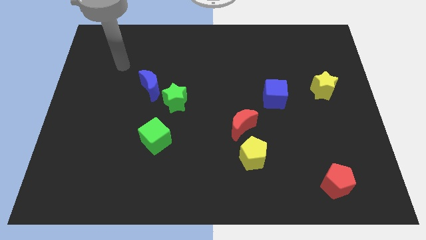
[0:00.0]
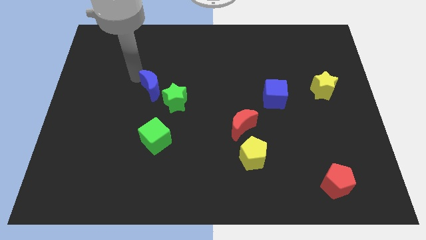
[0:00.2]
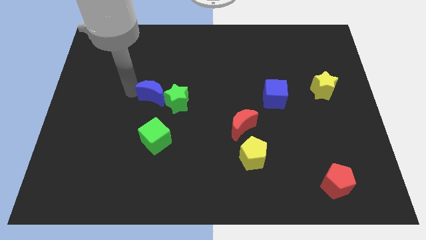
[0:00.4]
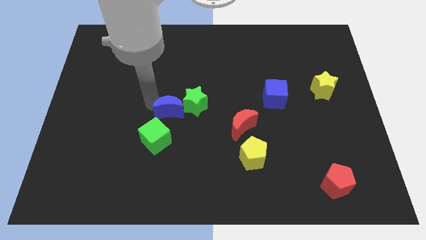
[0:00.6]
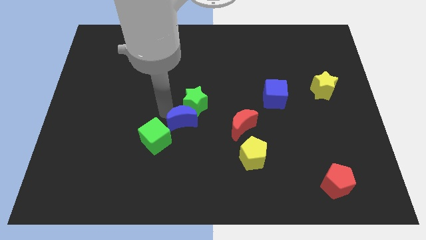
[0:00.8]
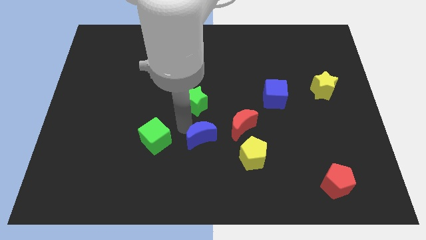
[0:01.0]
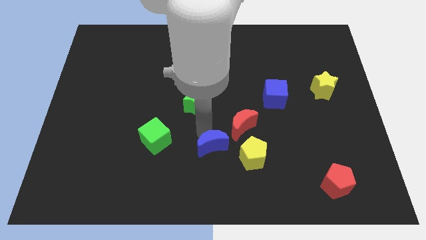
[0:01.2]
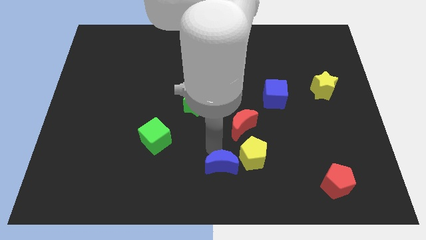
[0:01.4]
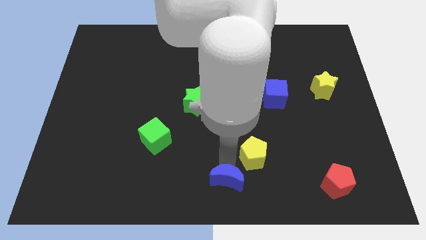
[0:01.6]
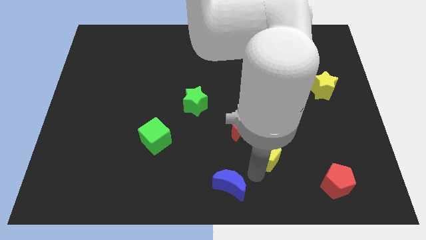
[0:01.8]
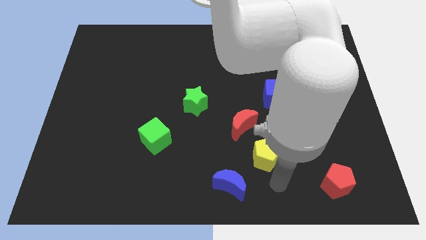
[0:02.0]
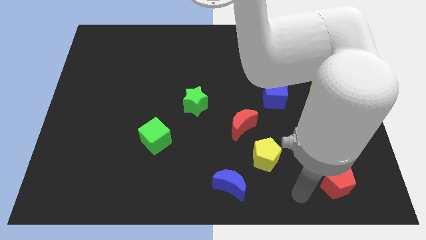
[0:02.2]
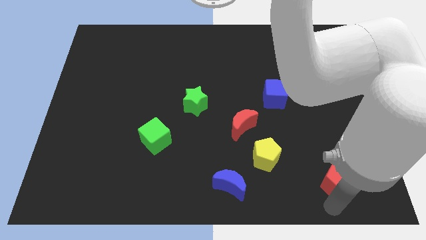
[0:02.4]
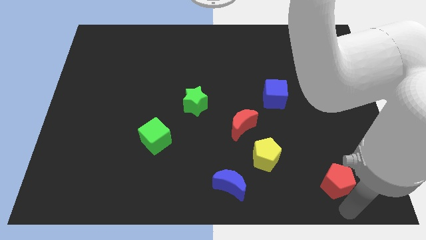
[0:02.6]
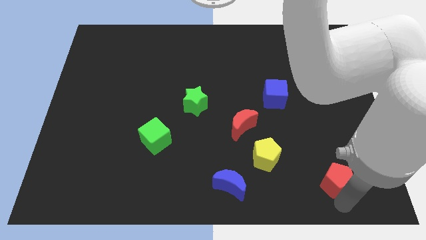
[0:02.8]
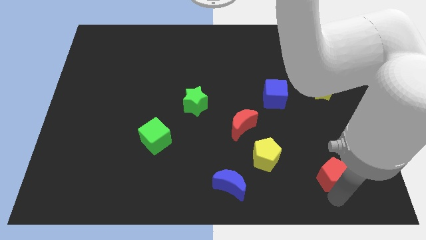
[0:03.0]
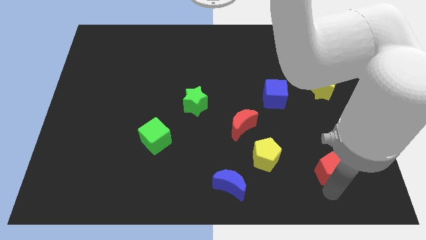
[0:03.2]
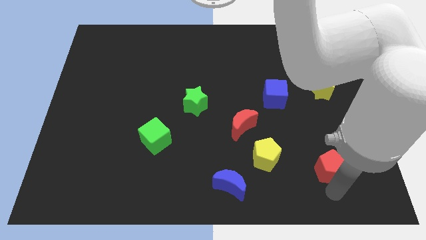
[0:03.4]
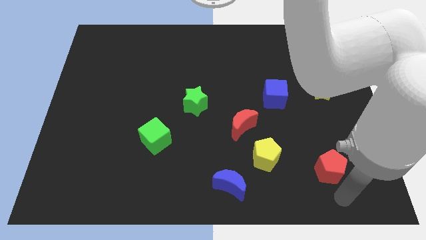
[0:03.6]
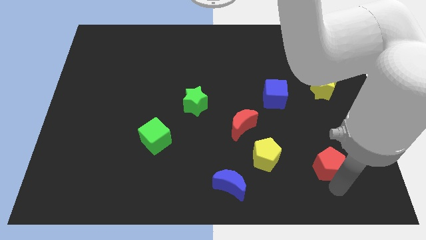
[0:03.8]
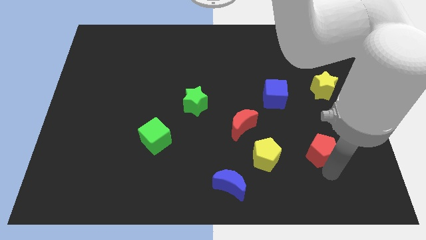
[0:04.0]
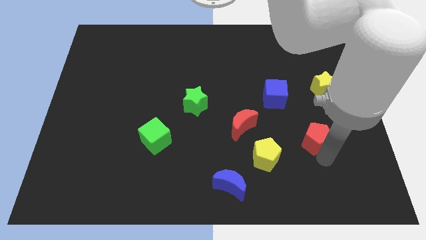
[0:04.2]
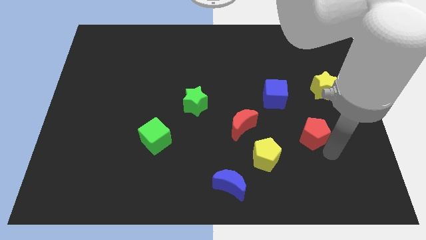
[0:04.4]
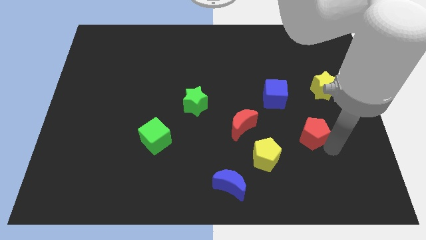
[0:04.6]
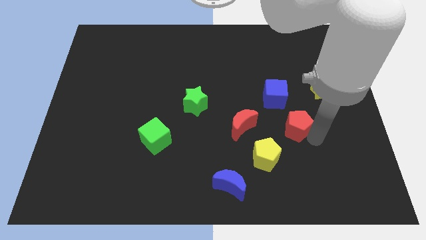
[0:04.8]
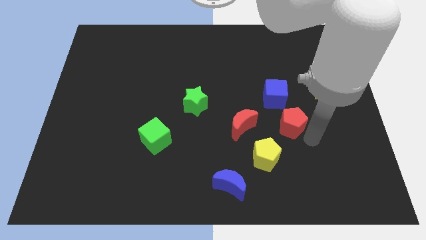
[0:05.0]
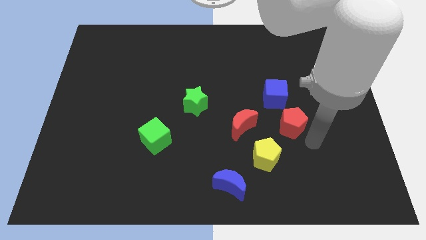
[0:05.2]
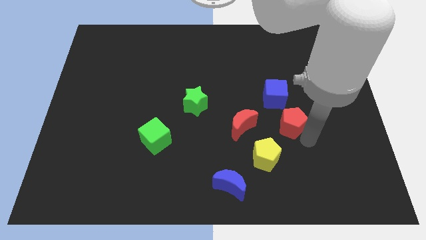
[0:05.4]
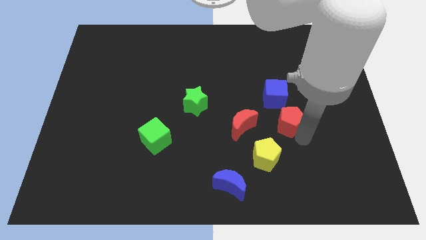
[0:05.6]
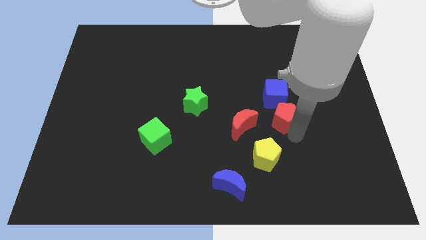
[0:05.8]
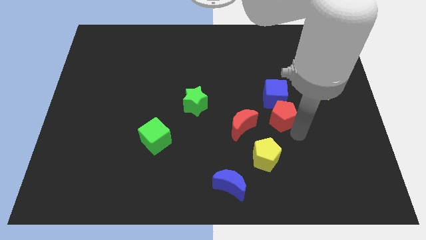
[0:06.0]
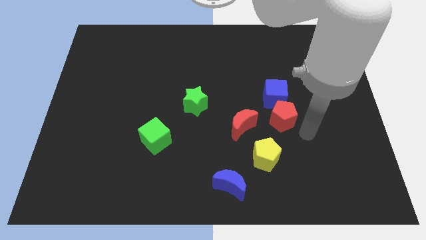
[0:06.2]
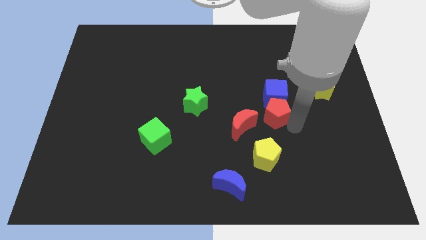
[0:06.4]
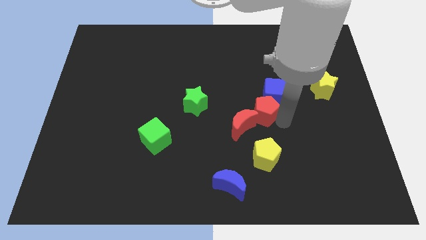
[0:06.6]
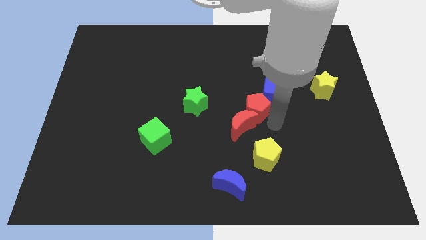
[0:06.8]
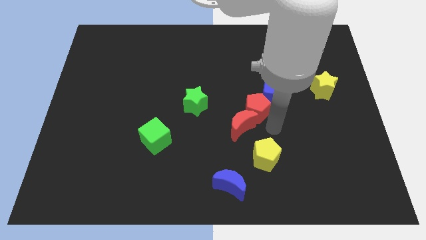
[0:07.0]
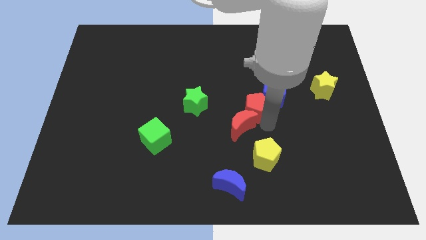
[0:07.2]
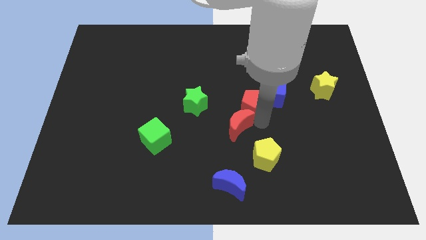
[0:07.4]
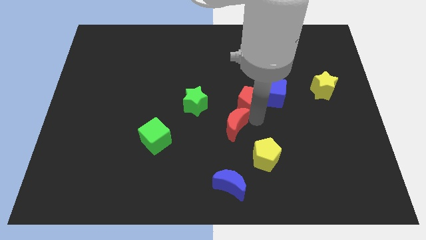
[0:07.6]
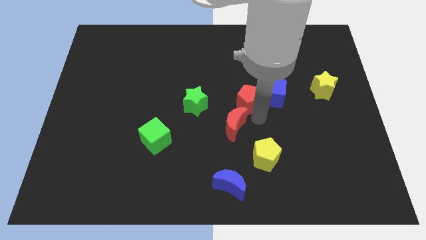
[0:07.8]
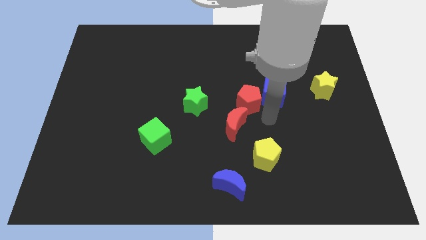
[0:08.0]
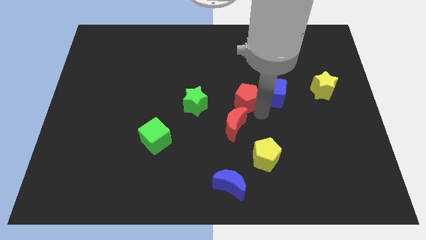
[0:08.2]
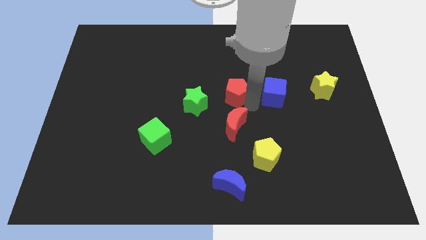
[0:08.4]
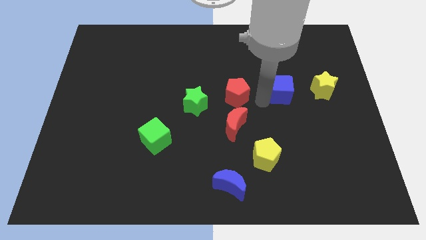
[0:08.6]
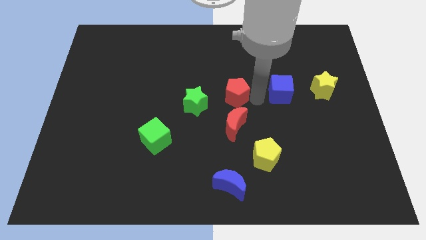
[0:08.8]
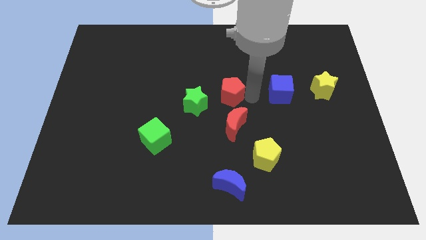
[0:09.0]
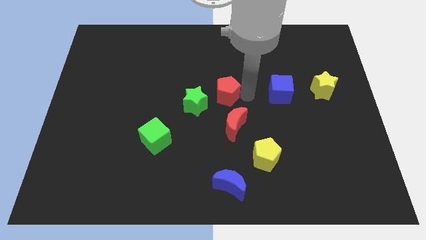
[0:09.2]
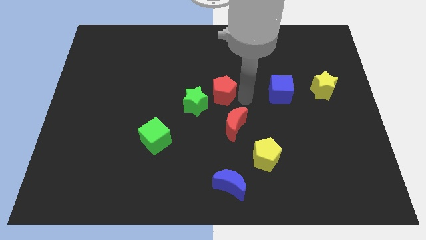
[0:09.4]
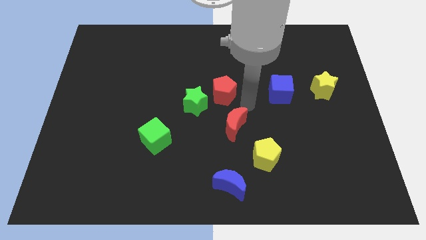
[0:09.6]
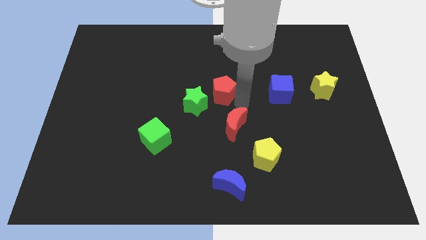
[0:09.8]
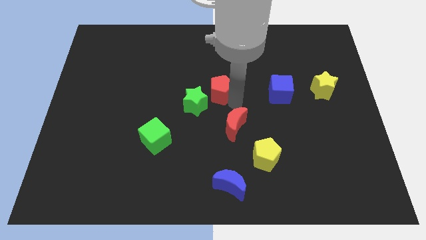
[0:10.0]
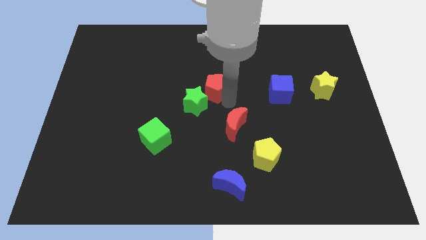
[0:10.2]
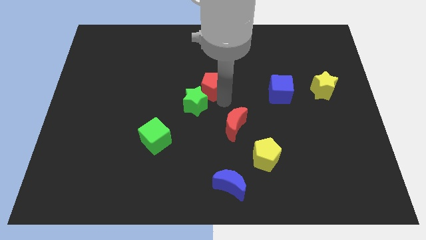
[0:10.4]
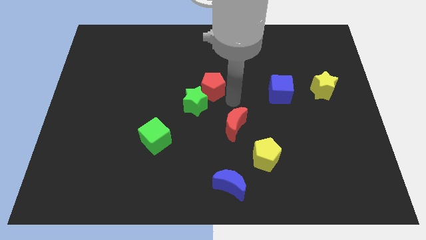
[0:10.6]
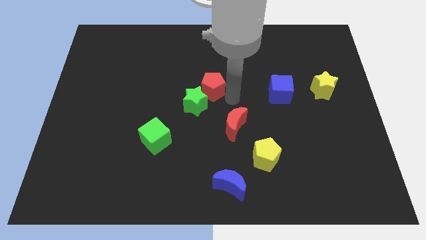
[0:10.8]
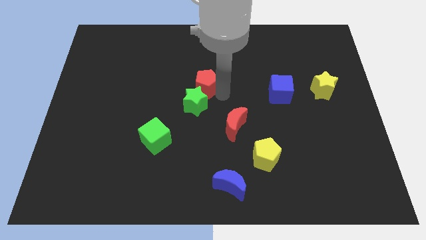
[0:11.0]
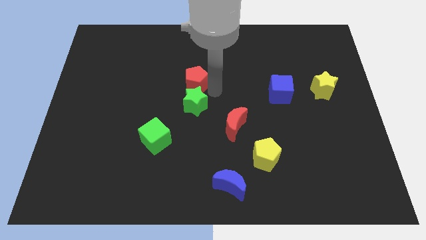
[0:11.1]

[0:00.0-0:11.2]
push the red pentagon diagonally up and to the left of the green star
